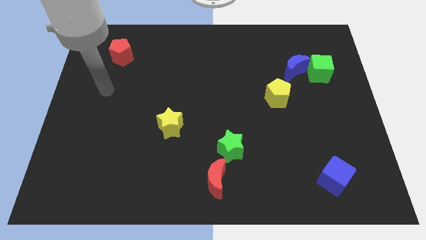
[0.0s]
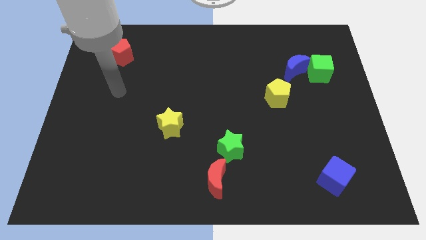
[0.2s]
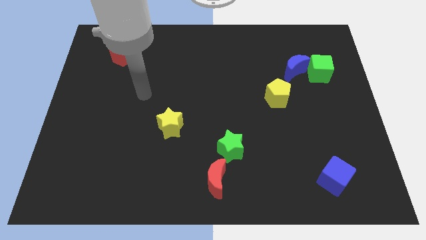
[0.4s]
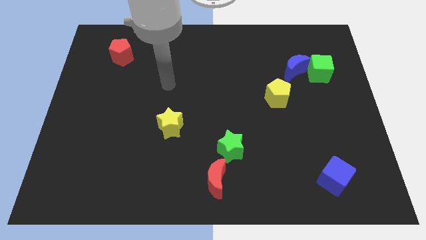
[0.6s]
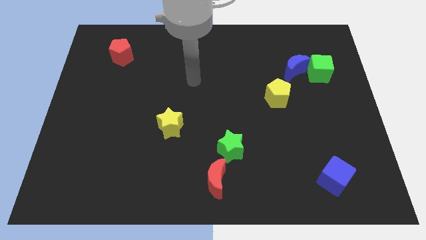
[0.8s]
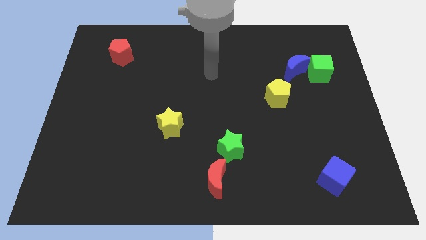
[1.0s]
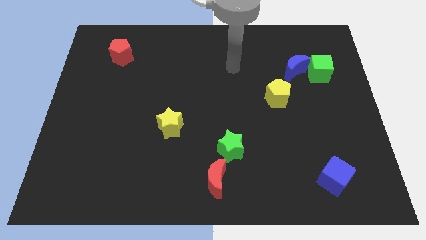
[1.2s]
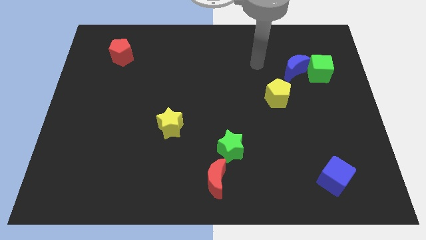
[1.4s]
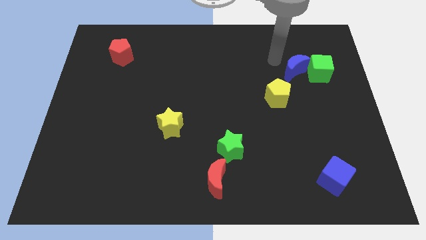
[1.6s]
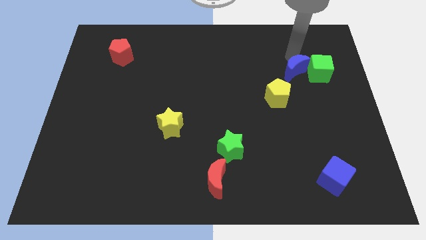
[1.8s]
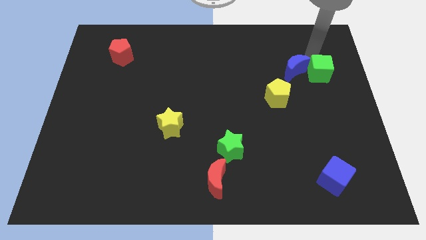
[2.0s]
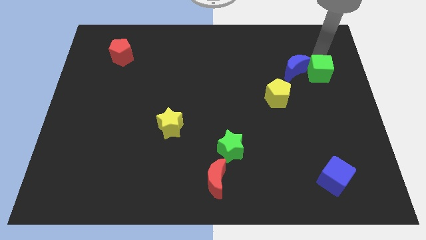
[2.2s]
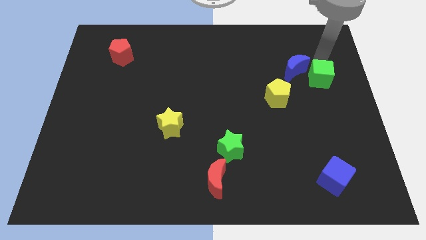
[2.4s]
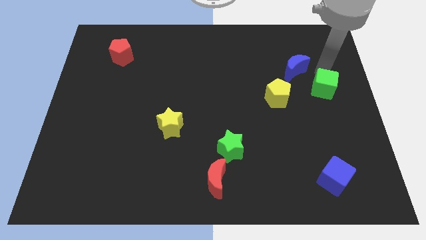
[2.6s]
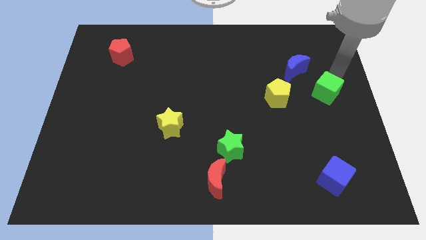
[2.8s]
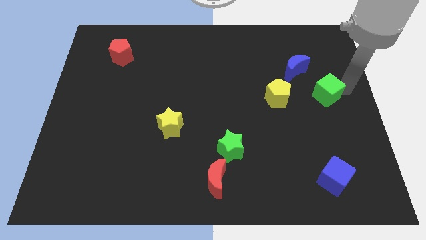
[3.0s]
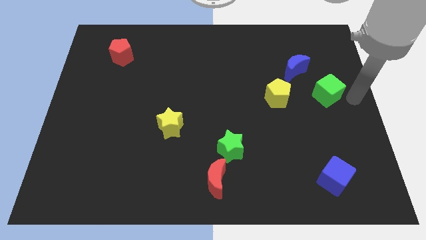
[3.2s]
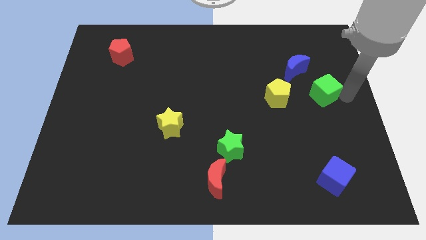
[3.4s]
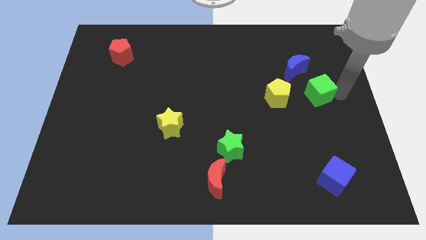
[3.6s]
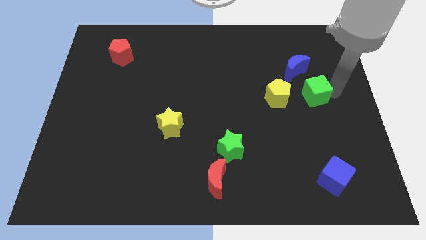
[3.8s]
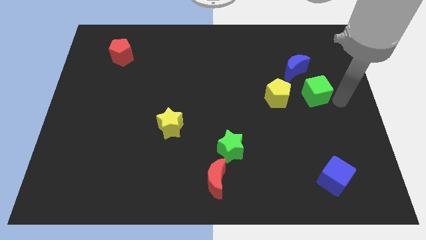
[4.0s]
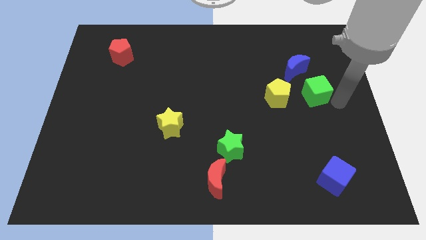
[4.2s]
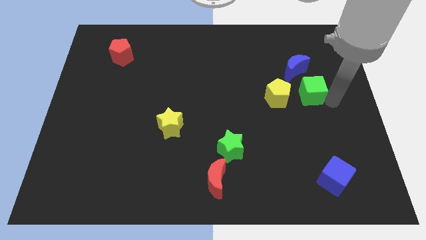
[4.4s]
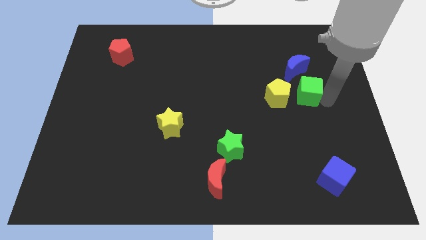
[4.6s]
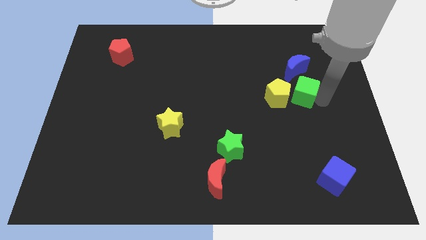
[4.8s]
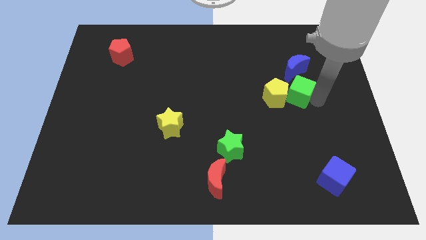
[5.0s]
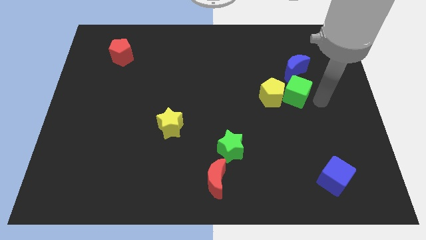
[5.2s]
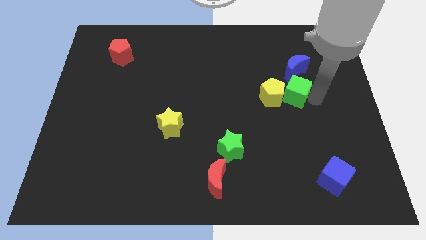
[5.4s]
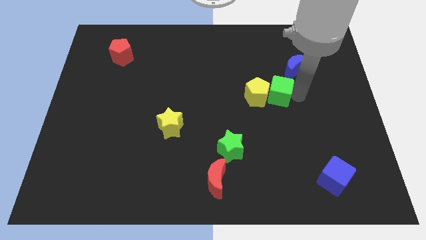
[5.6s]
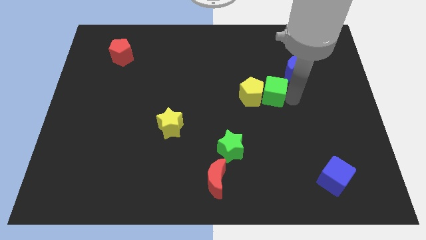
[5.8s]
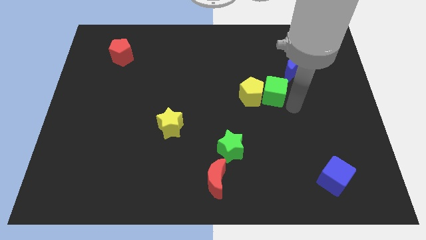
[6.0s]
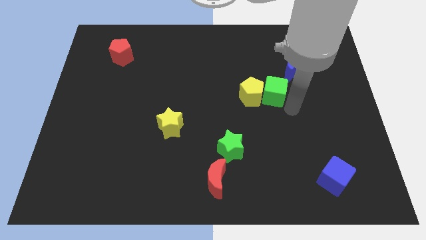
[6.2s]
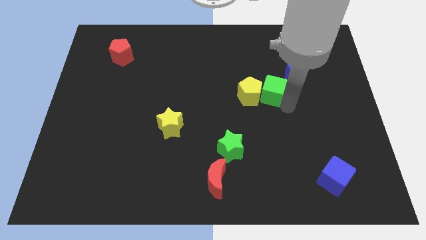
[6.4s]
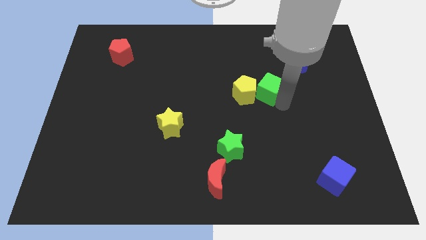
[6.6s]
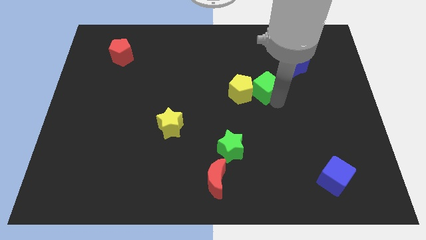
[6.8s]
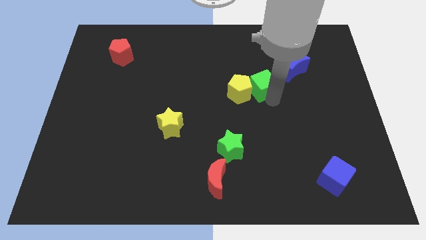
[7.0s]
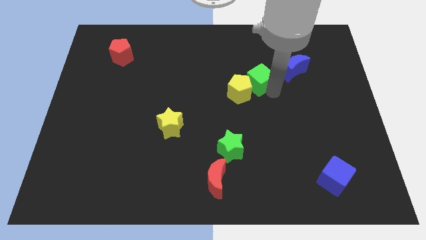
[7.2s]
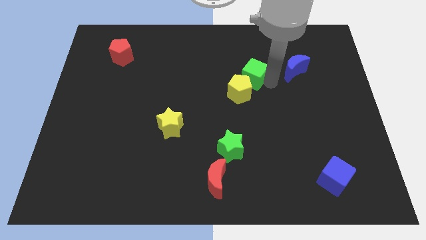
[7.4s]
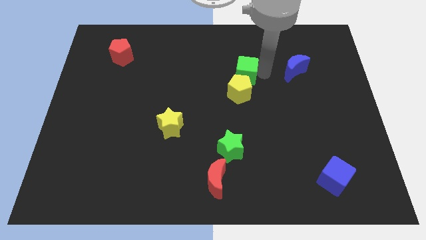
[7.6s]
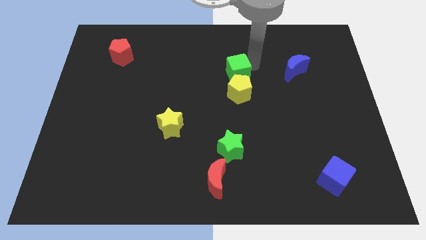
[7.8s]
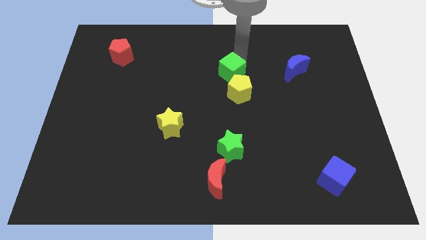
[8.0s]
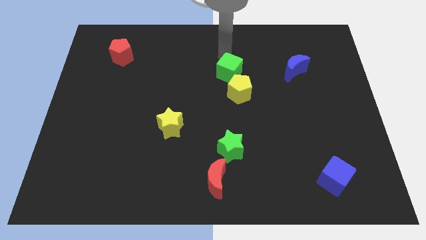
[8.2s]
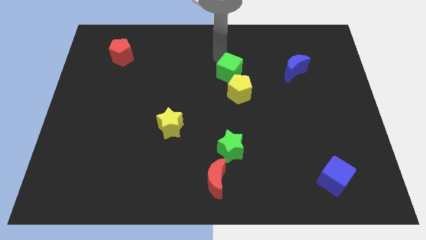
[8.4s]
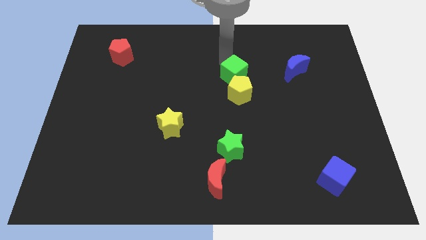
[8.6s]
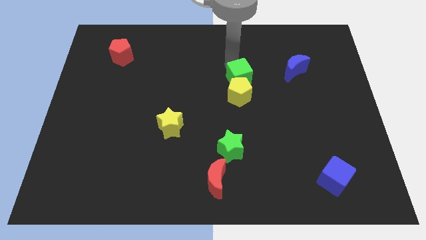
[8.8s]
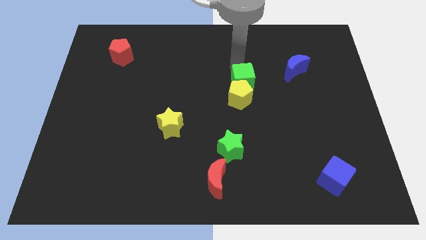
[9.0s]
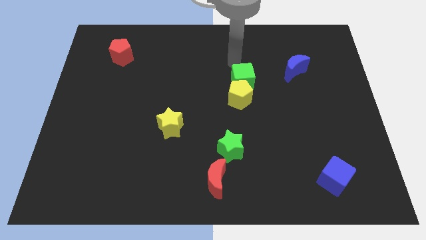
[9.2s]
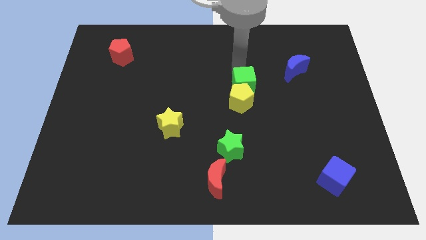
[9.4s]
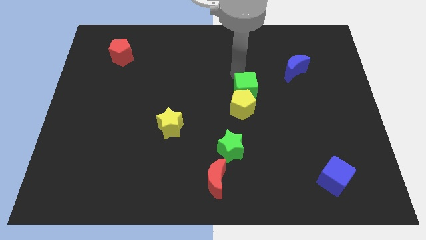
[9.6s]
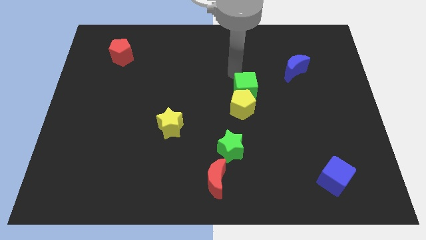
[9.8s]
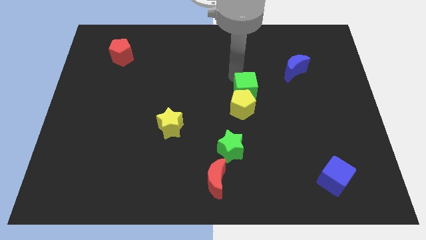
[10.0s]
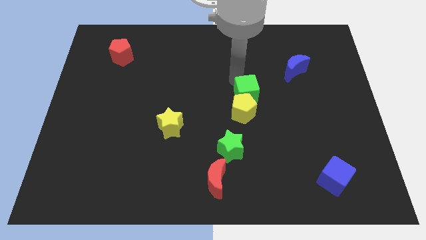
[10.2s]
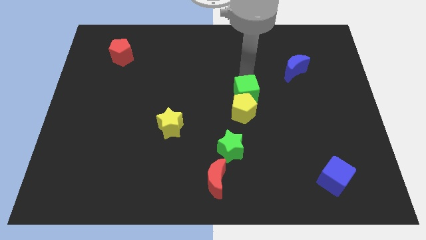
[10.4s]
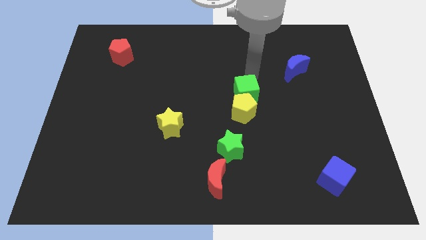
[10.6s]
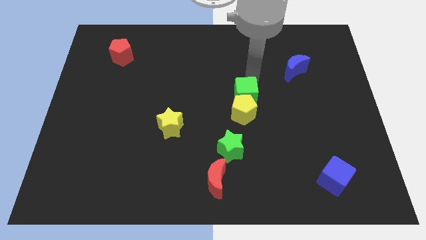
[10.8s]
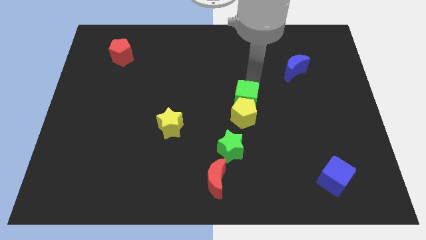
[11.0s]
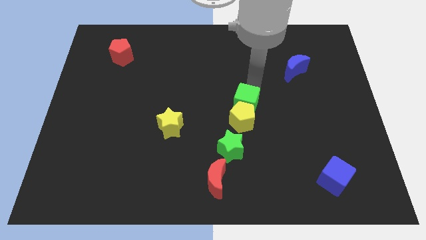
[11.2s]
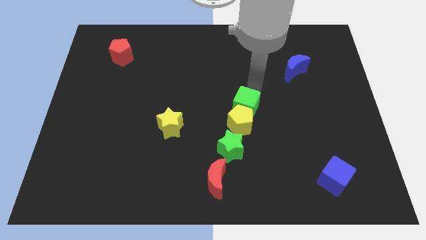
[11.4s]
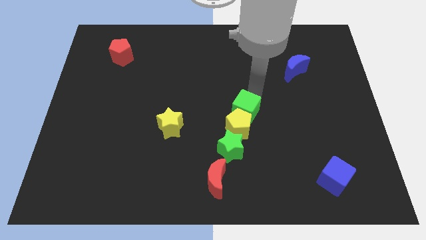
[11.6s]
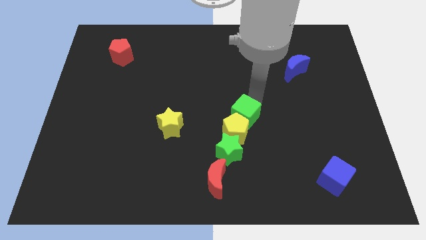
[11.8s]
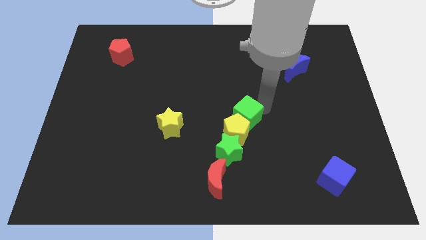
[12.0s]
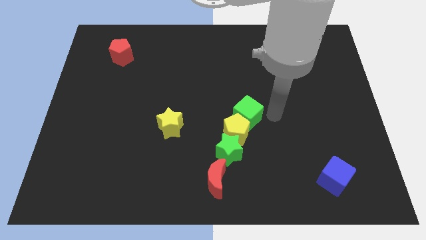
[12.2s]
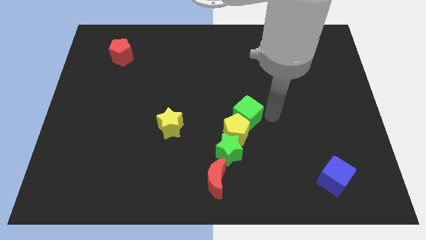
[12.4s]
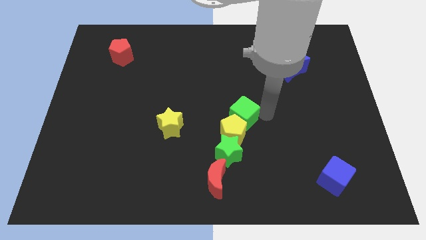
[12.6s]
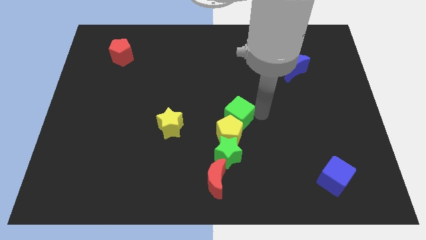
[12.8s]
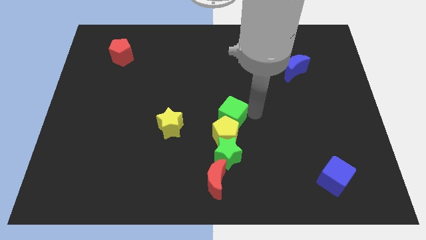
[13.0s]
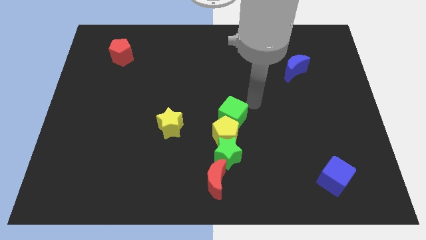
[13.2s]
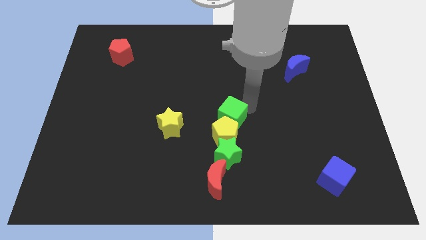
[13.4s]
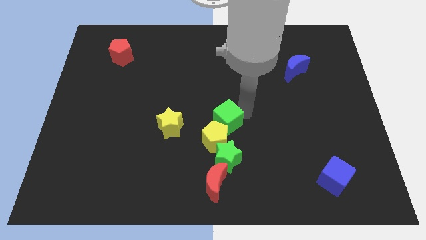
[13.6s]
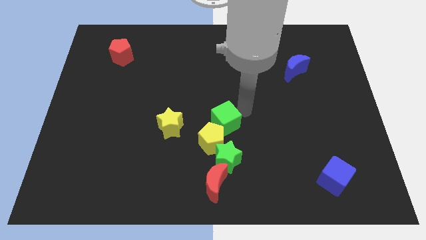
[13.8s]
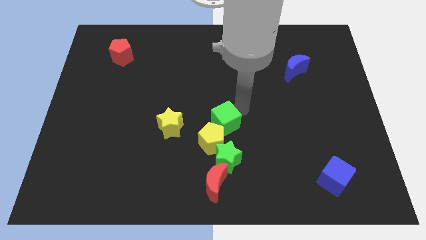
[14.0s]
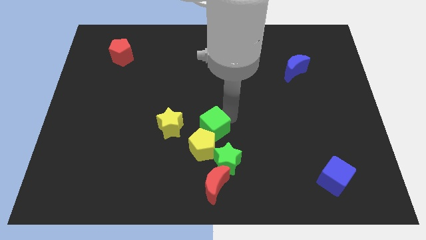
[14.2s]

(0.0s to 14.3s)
move the green cube to the top left of the green star
